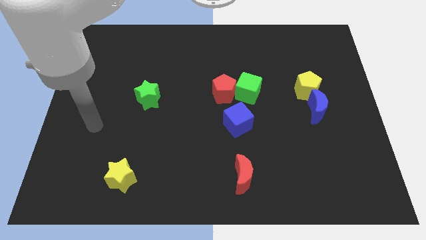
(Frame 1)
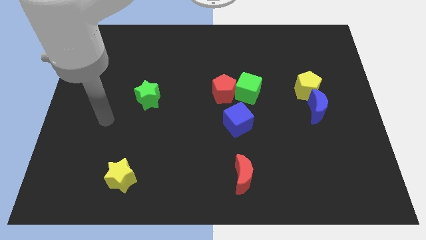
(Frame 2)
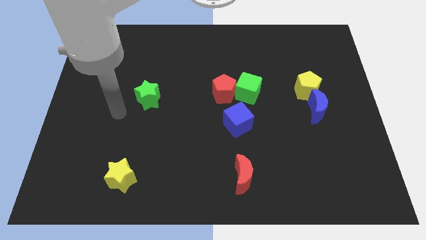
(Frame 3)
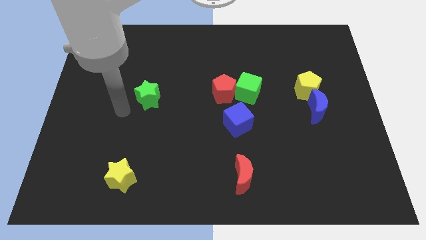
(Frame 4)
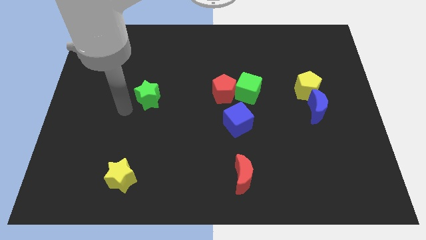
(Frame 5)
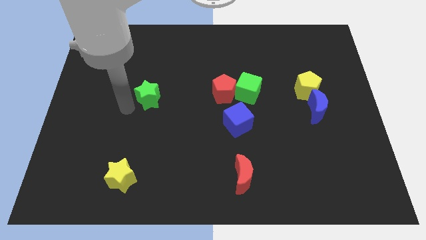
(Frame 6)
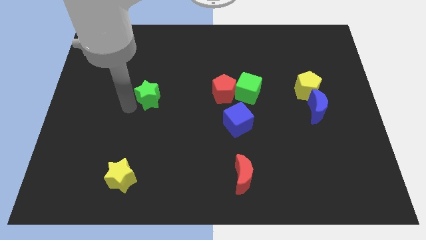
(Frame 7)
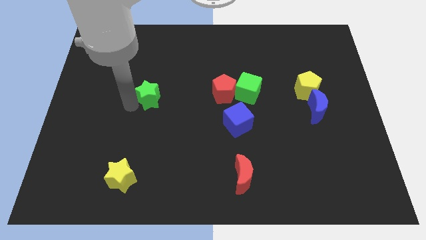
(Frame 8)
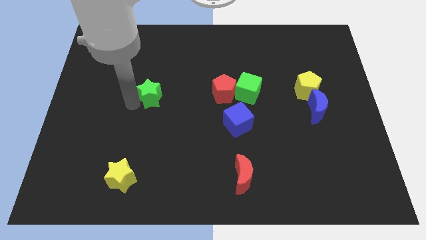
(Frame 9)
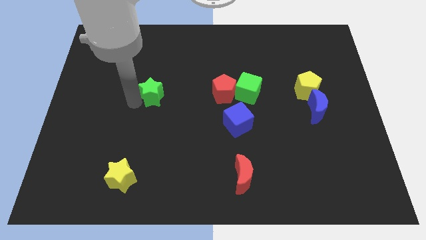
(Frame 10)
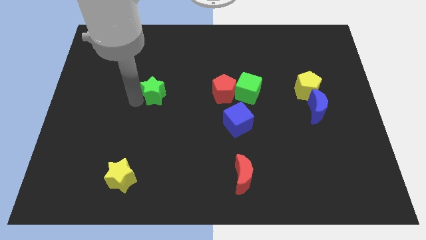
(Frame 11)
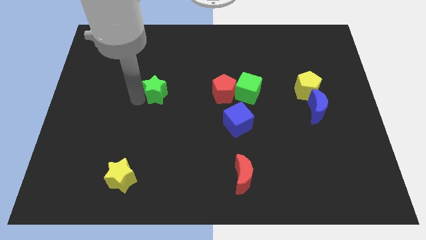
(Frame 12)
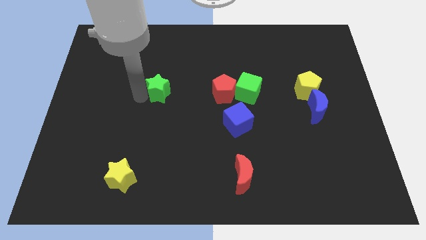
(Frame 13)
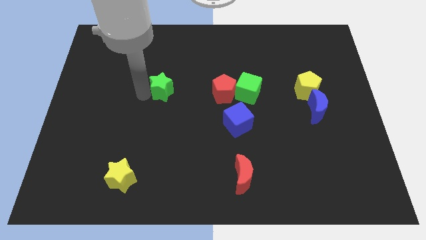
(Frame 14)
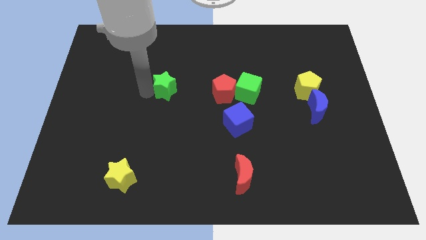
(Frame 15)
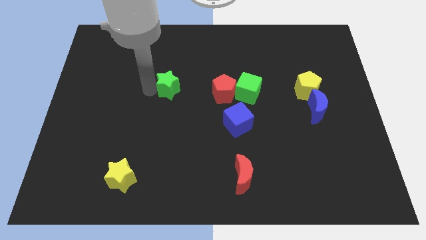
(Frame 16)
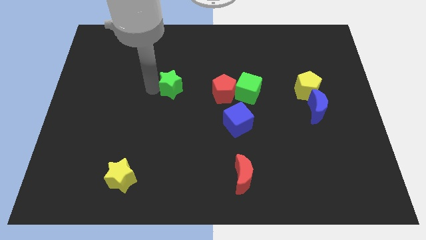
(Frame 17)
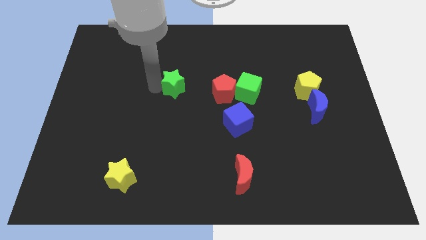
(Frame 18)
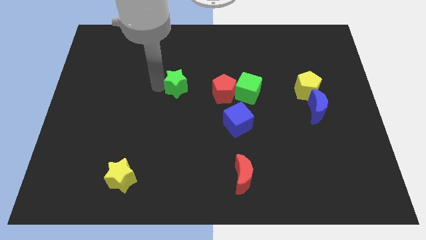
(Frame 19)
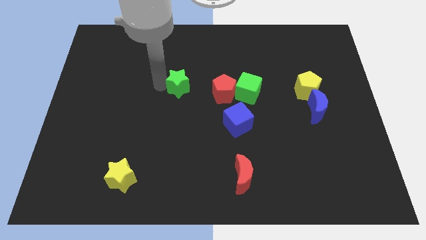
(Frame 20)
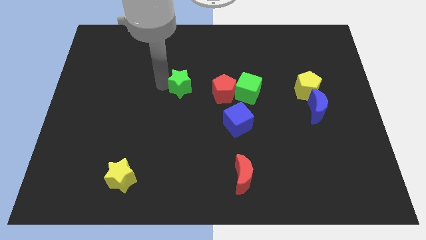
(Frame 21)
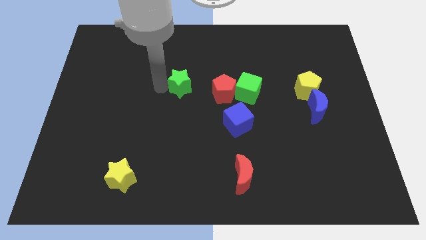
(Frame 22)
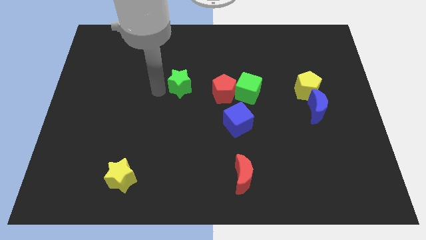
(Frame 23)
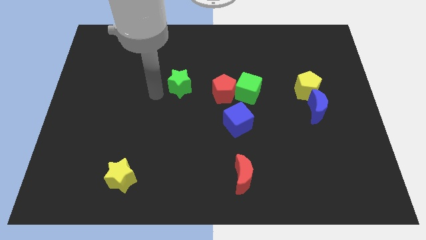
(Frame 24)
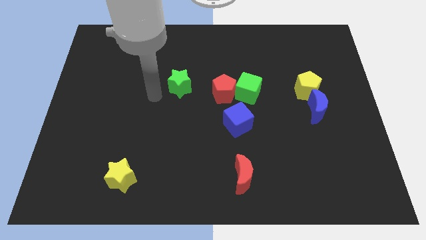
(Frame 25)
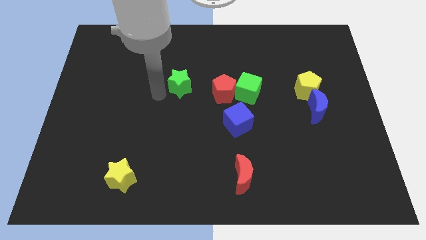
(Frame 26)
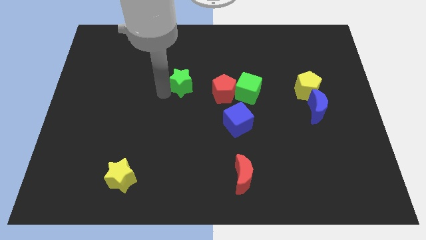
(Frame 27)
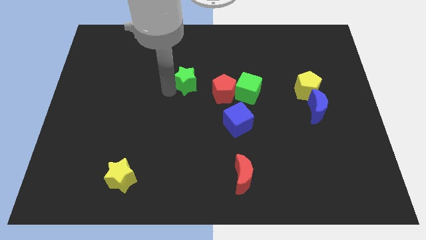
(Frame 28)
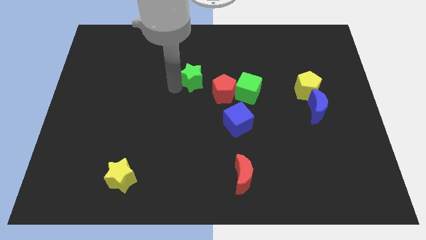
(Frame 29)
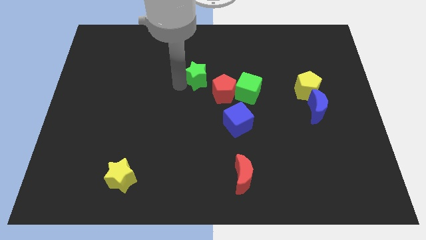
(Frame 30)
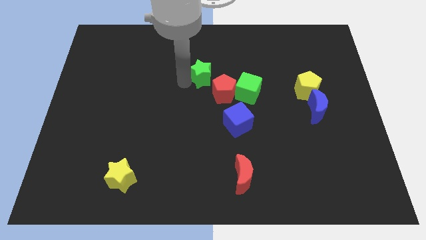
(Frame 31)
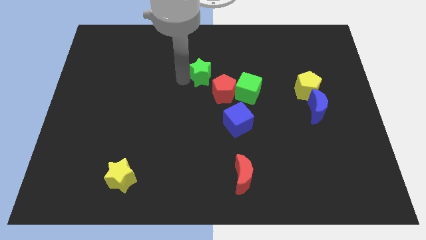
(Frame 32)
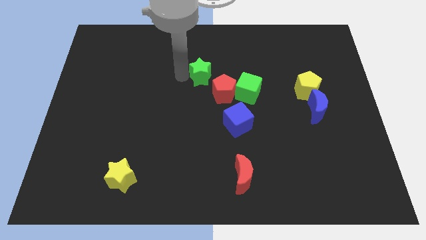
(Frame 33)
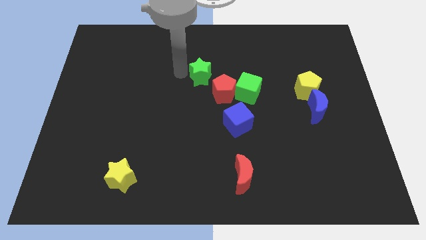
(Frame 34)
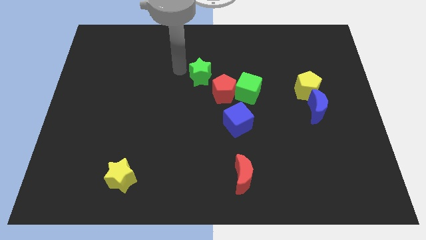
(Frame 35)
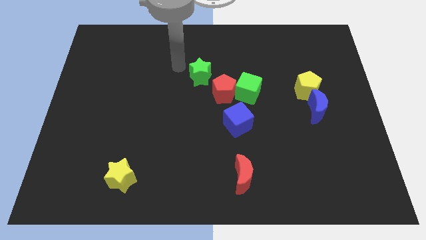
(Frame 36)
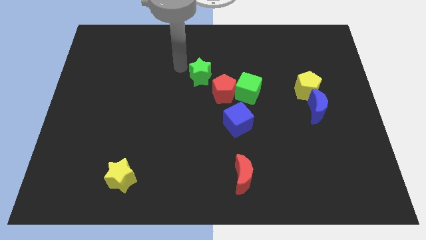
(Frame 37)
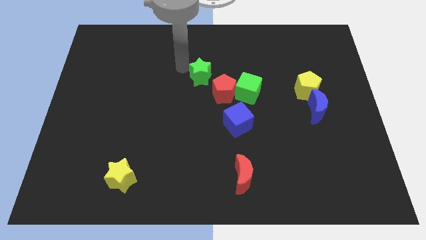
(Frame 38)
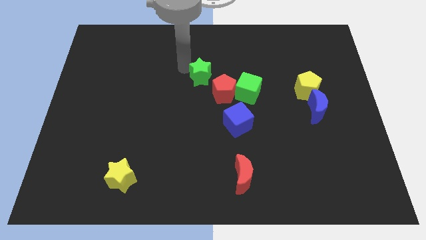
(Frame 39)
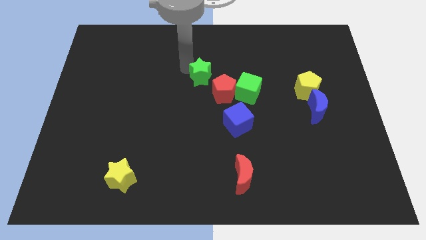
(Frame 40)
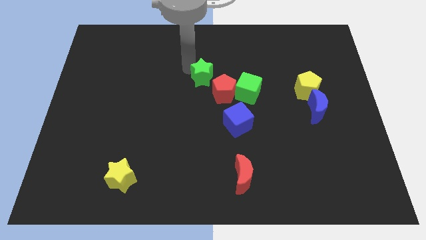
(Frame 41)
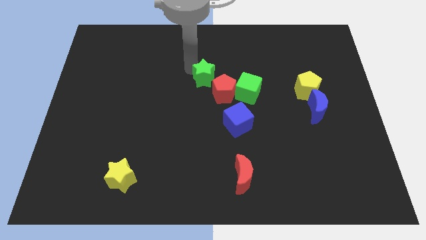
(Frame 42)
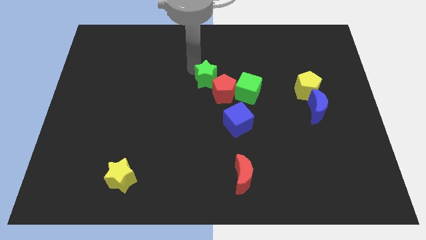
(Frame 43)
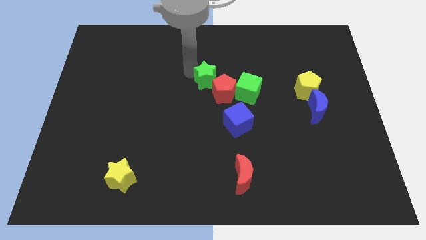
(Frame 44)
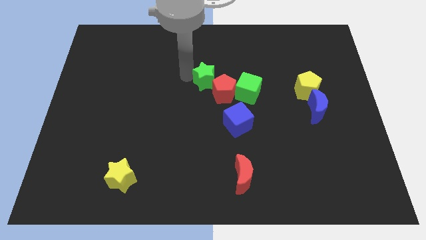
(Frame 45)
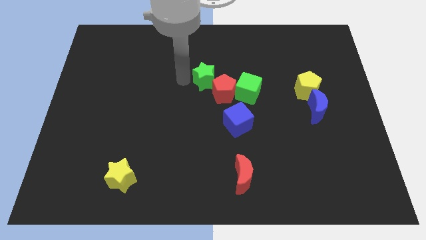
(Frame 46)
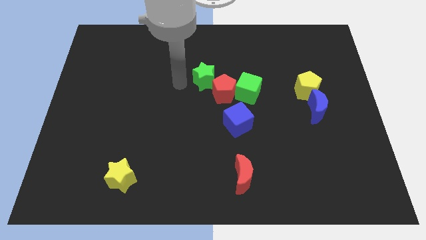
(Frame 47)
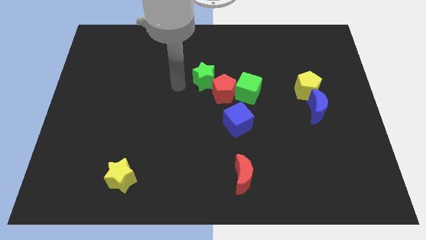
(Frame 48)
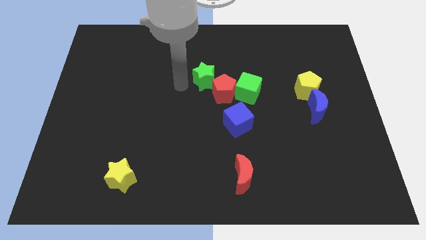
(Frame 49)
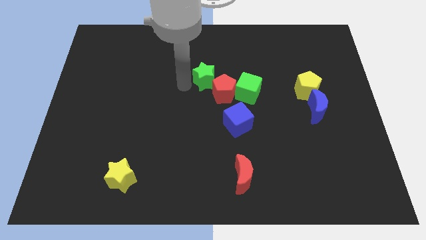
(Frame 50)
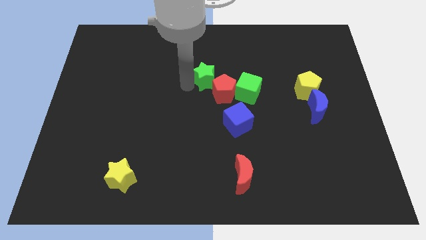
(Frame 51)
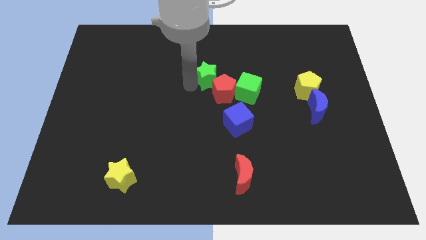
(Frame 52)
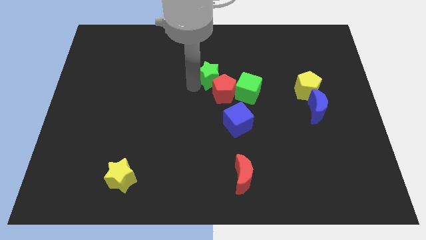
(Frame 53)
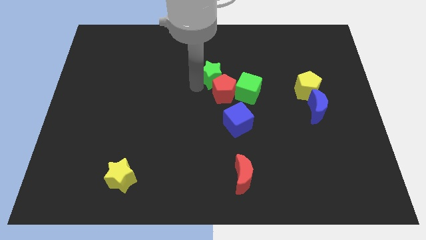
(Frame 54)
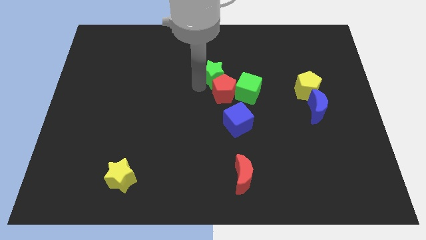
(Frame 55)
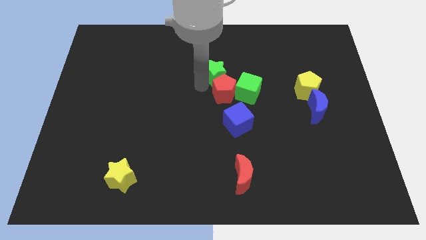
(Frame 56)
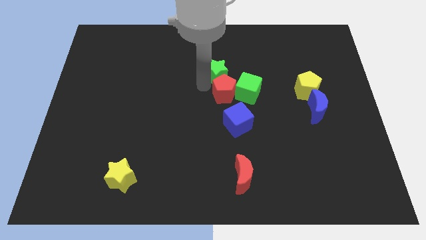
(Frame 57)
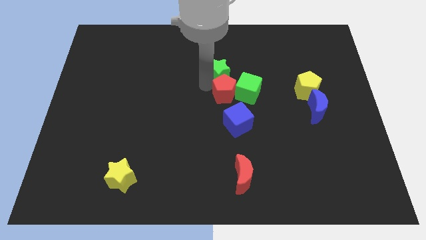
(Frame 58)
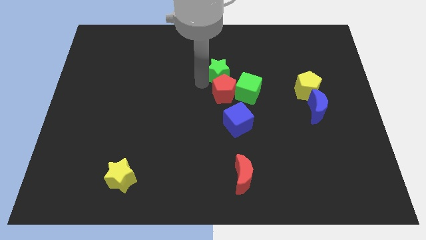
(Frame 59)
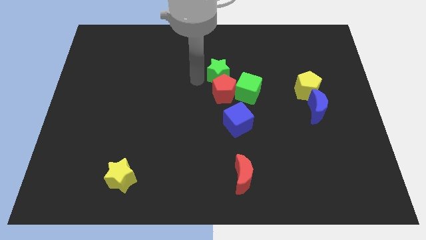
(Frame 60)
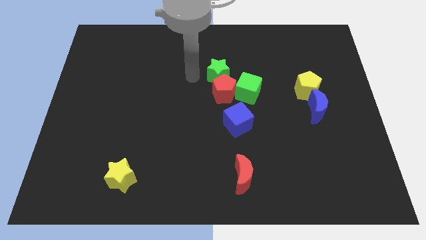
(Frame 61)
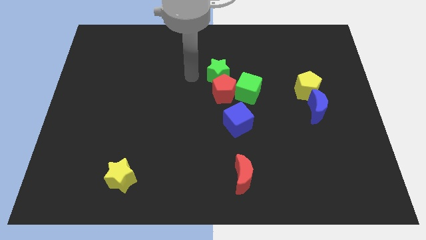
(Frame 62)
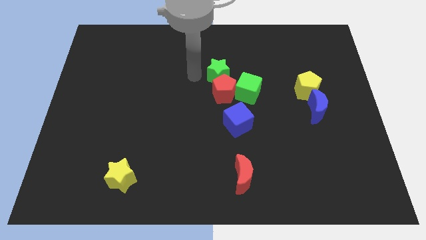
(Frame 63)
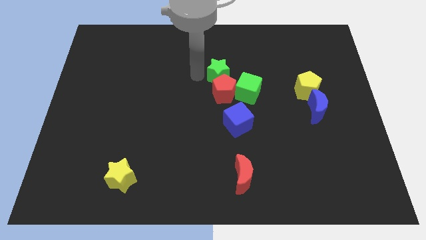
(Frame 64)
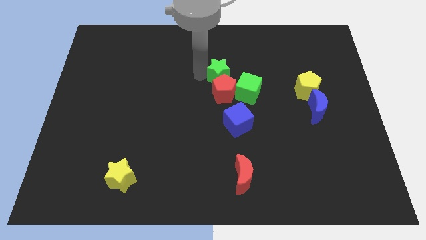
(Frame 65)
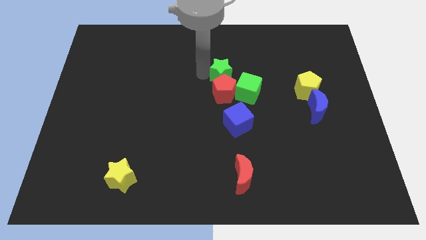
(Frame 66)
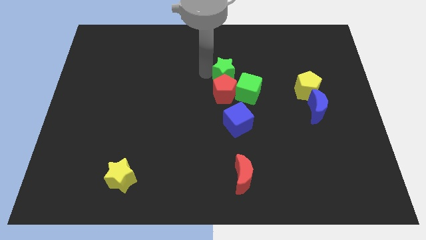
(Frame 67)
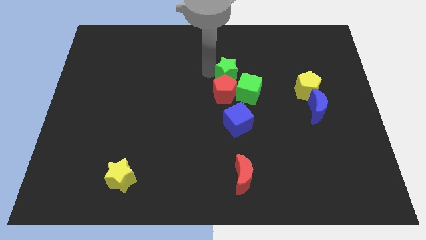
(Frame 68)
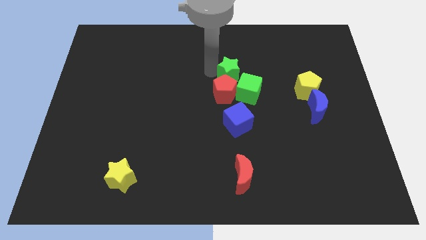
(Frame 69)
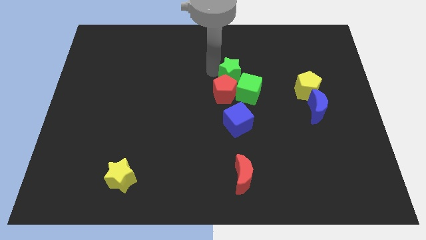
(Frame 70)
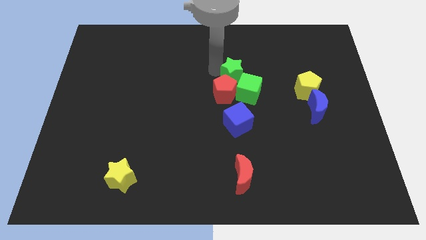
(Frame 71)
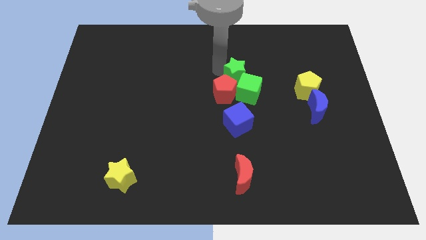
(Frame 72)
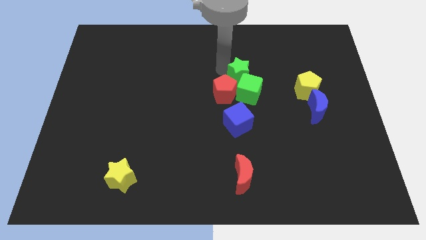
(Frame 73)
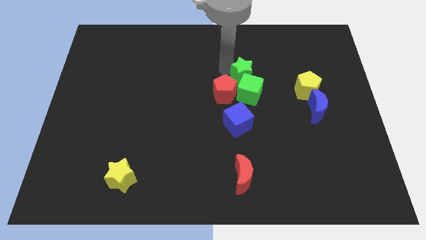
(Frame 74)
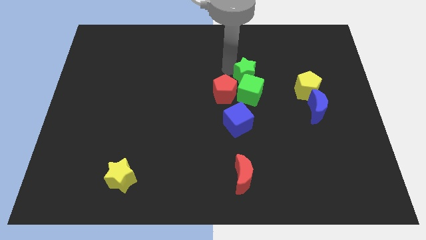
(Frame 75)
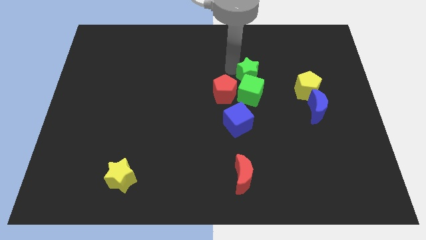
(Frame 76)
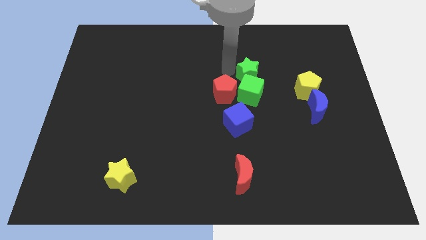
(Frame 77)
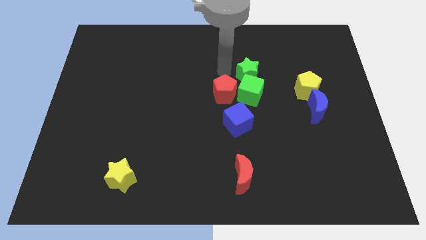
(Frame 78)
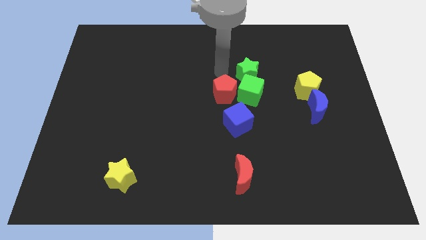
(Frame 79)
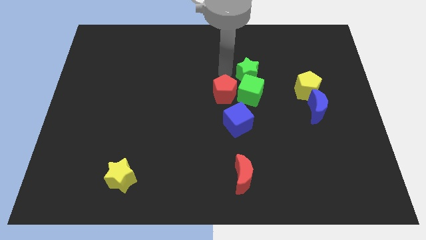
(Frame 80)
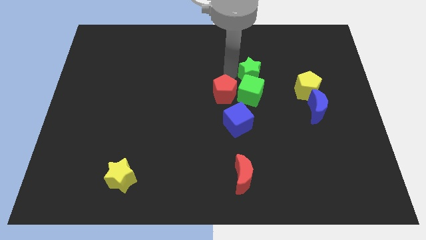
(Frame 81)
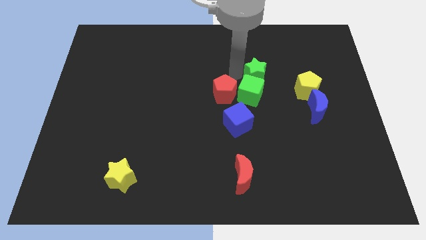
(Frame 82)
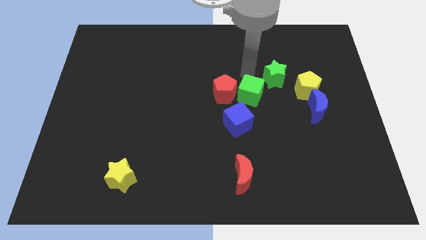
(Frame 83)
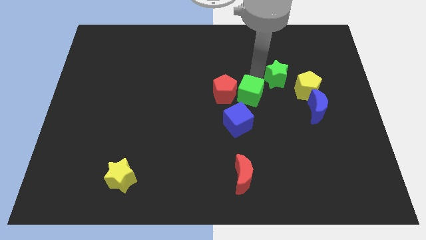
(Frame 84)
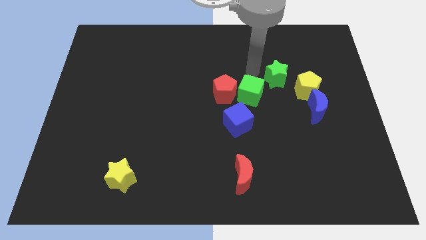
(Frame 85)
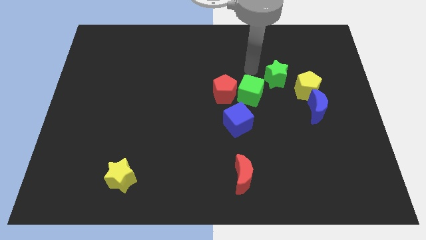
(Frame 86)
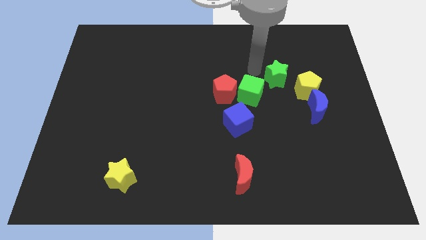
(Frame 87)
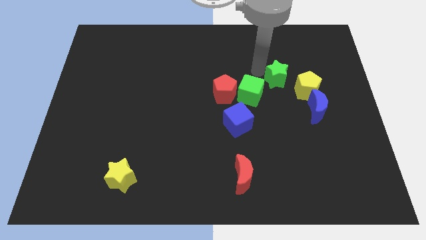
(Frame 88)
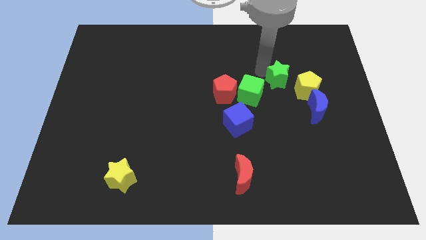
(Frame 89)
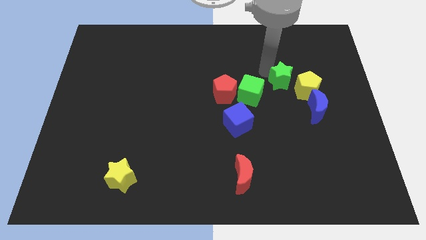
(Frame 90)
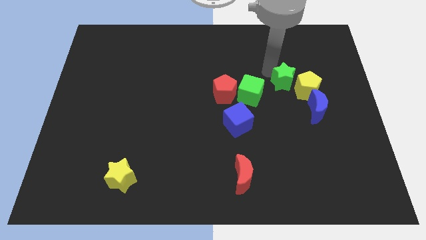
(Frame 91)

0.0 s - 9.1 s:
put the green star towards the yellow pentagon
